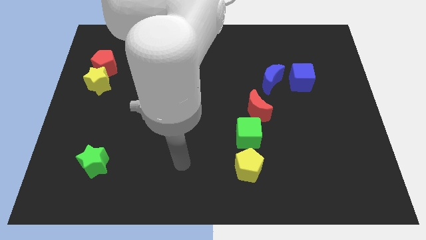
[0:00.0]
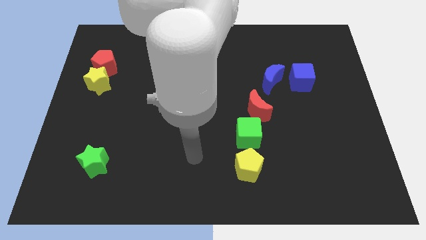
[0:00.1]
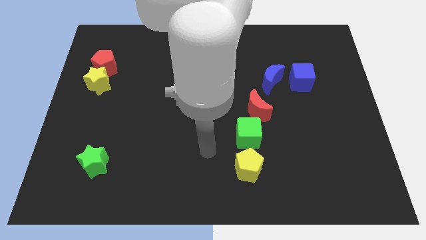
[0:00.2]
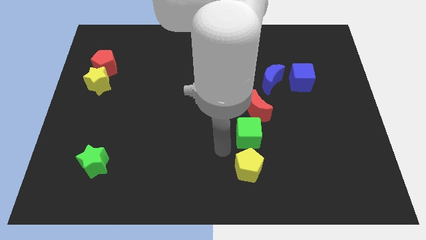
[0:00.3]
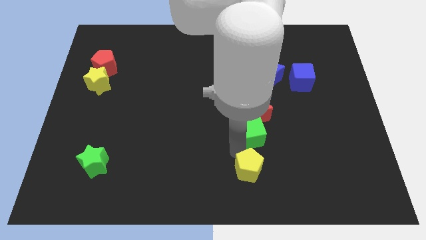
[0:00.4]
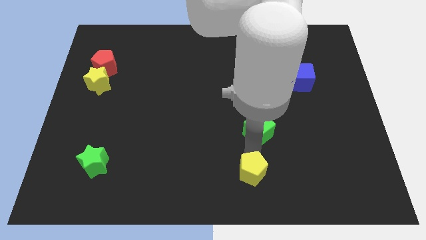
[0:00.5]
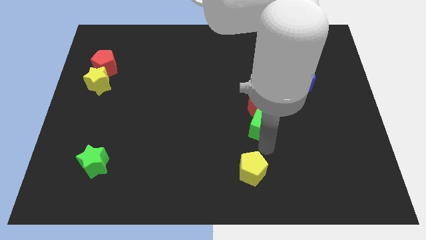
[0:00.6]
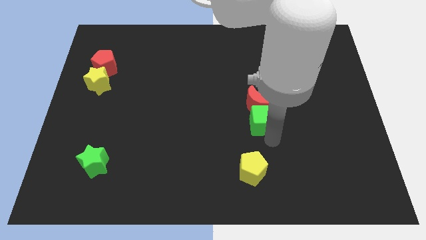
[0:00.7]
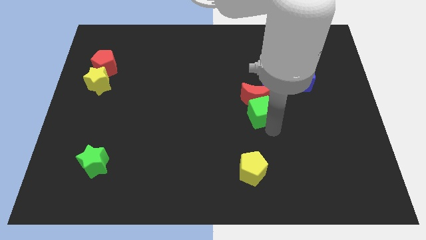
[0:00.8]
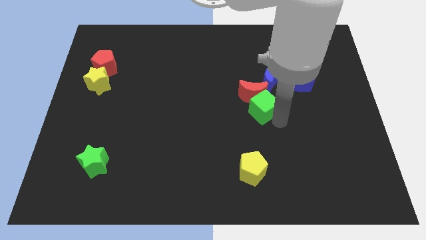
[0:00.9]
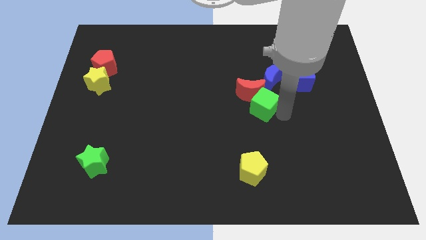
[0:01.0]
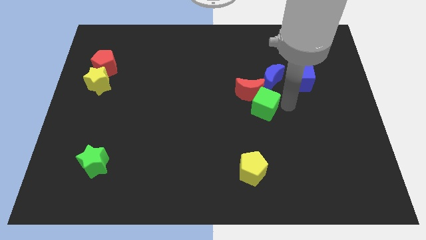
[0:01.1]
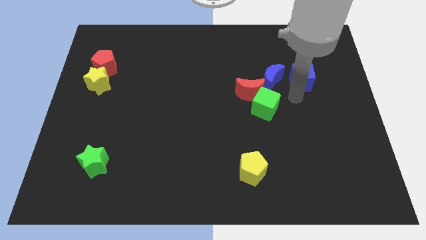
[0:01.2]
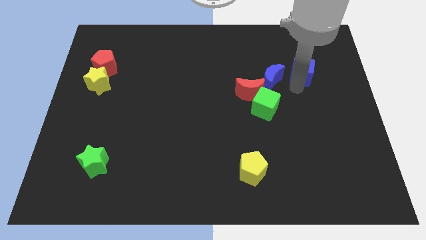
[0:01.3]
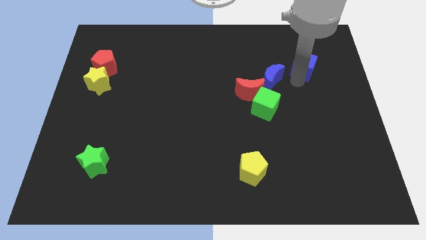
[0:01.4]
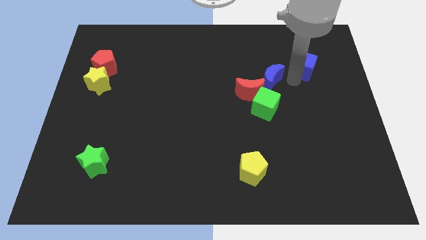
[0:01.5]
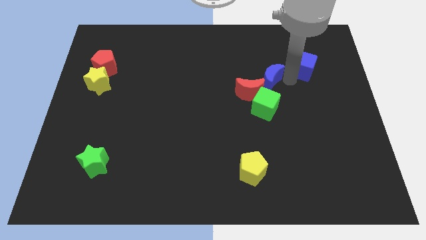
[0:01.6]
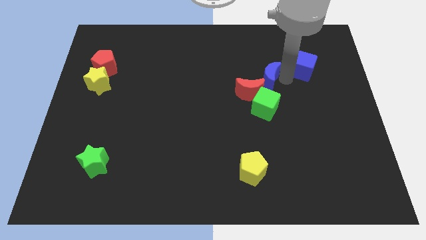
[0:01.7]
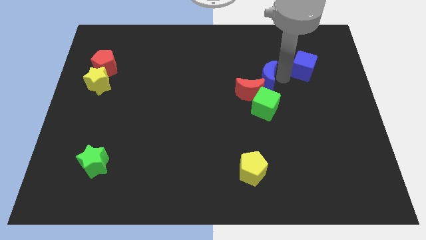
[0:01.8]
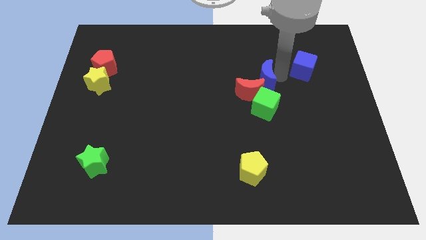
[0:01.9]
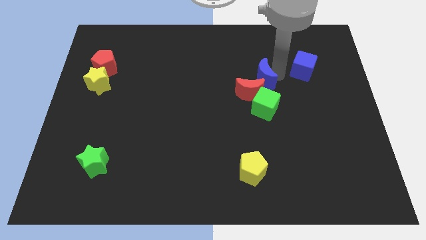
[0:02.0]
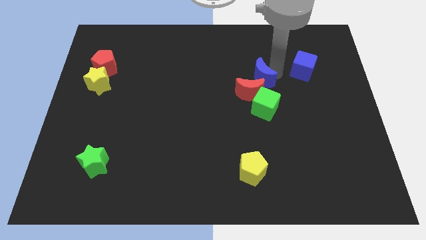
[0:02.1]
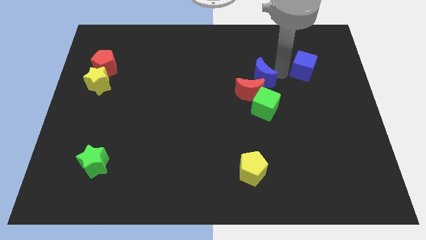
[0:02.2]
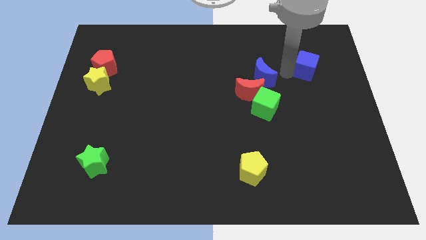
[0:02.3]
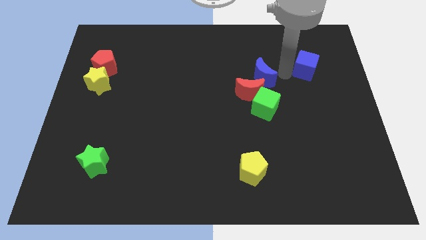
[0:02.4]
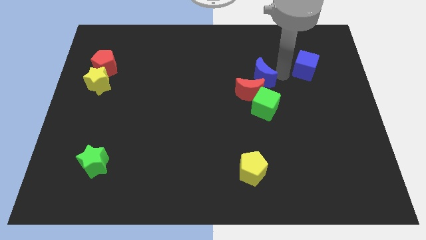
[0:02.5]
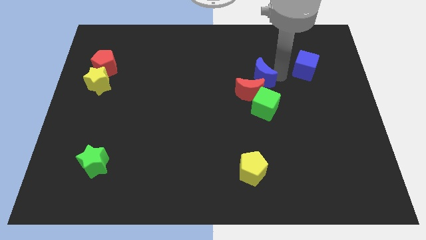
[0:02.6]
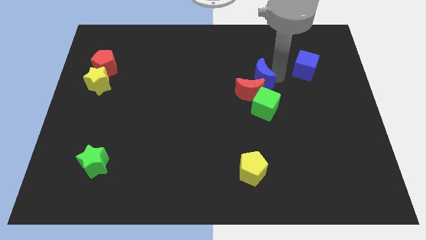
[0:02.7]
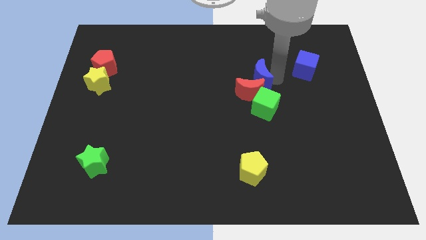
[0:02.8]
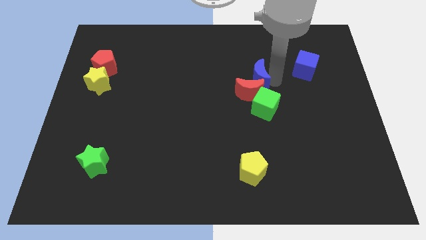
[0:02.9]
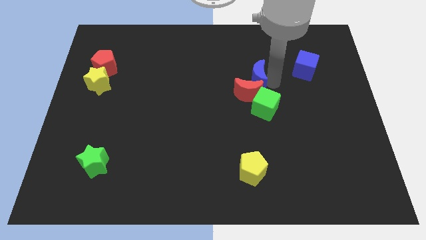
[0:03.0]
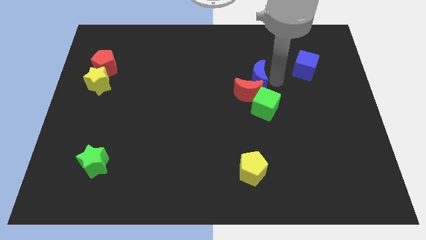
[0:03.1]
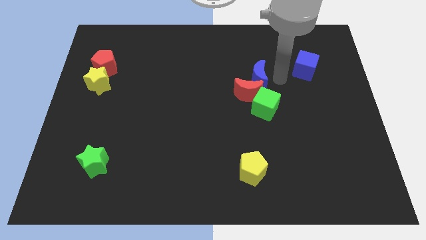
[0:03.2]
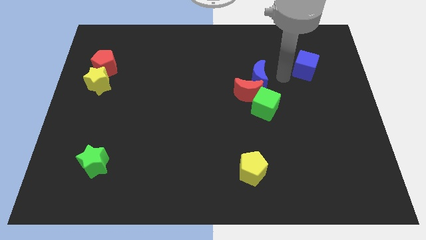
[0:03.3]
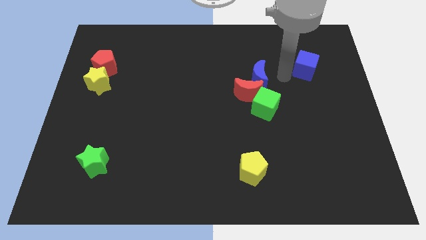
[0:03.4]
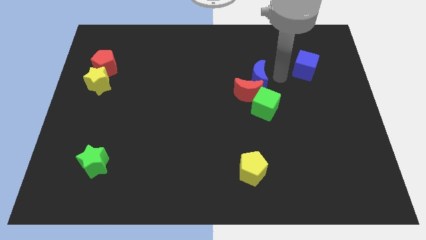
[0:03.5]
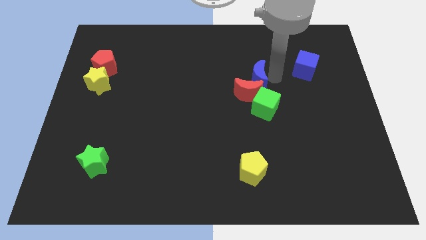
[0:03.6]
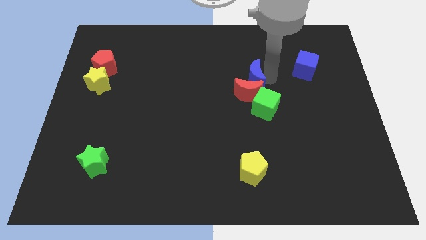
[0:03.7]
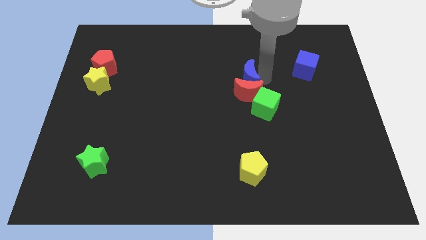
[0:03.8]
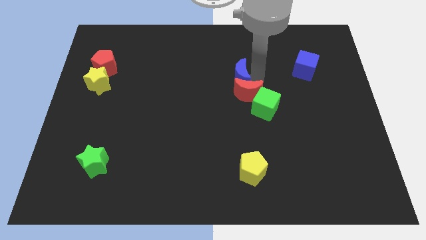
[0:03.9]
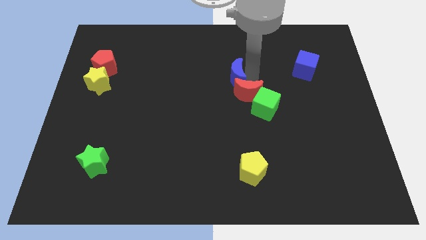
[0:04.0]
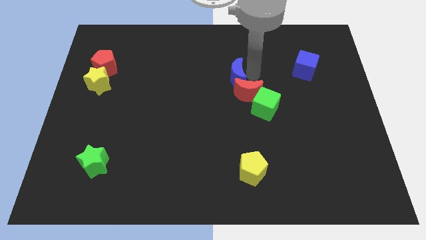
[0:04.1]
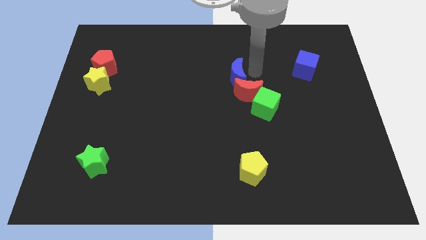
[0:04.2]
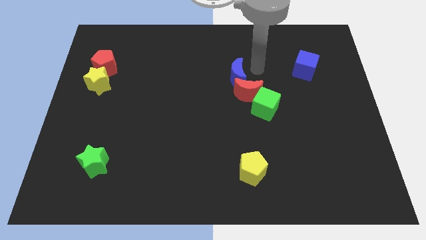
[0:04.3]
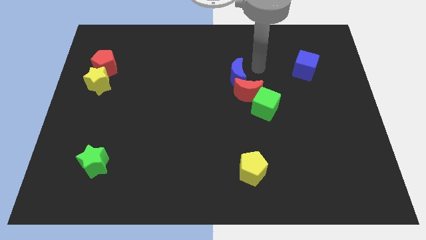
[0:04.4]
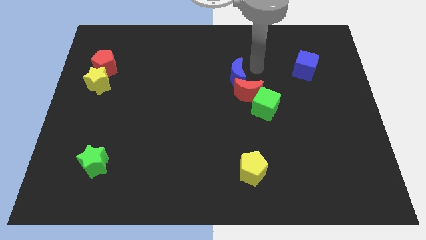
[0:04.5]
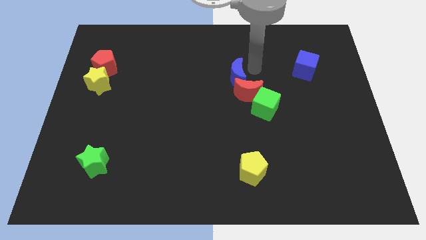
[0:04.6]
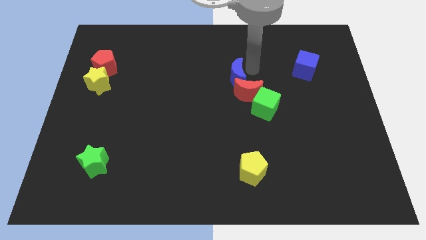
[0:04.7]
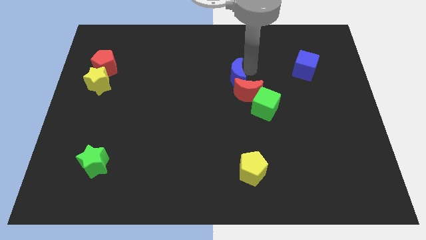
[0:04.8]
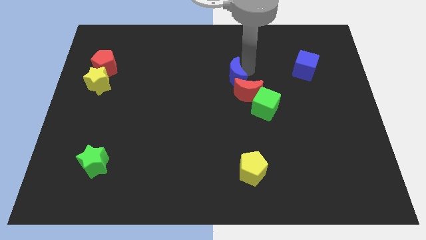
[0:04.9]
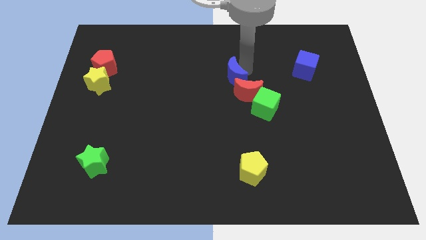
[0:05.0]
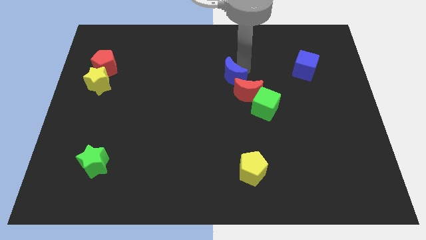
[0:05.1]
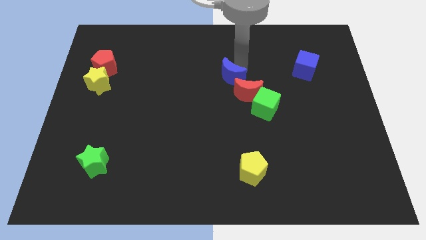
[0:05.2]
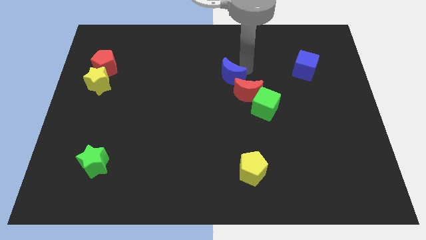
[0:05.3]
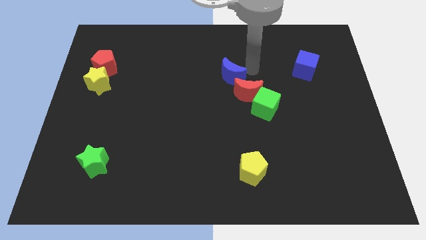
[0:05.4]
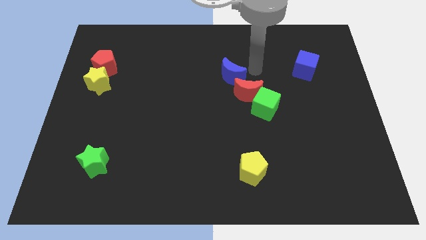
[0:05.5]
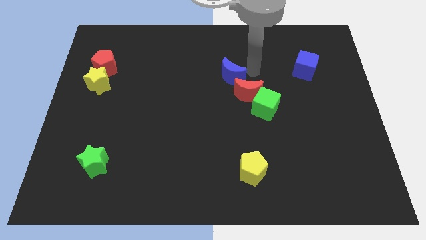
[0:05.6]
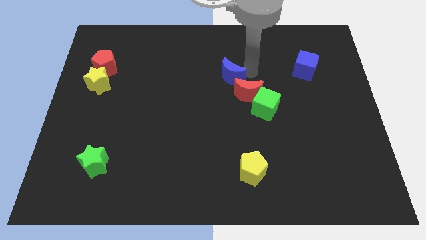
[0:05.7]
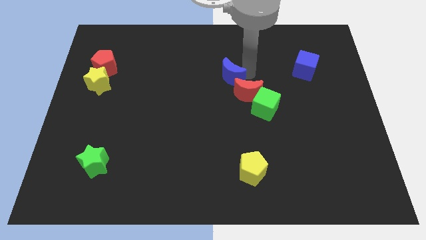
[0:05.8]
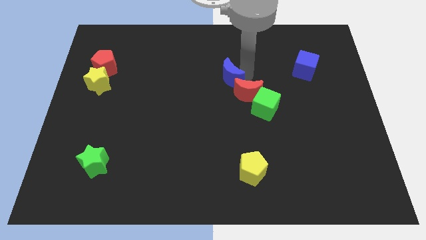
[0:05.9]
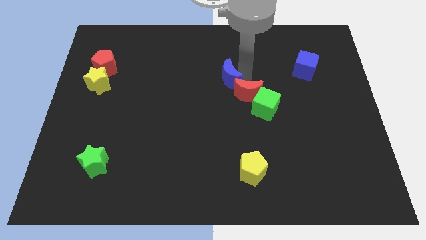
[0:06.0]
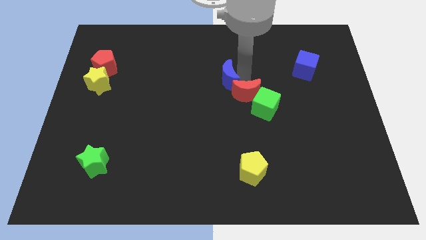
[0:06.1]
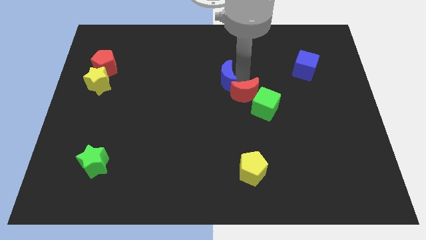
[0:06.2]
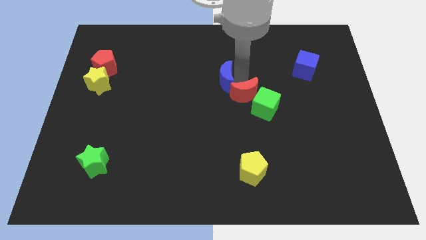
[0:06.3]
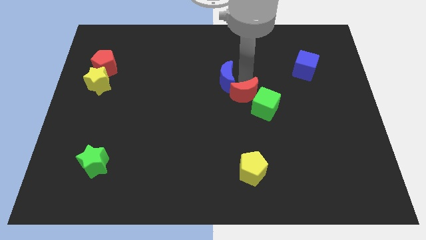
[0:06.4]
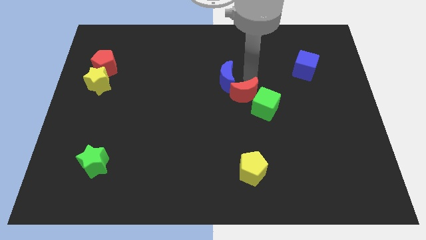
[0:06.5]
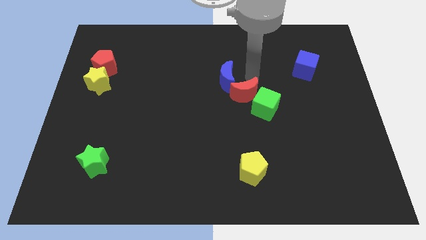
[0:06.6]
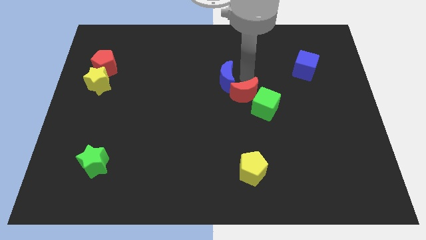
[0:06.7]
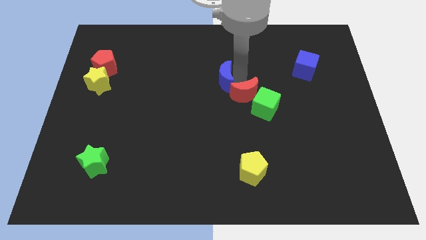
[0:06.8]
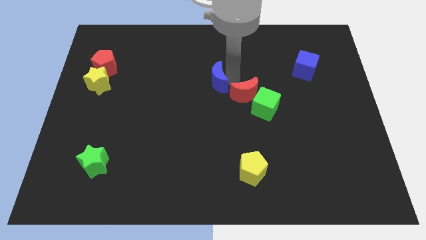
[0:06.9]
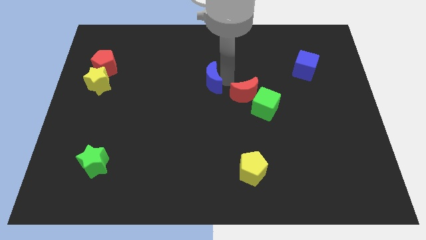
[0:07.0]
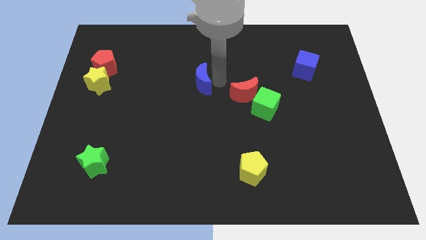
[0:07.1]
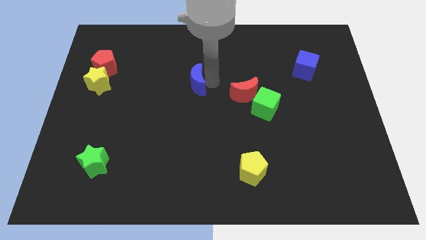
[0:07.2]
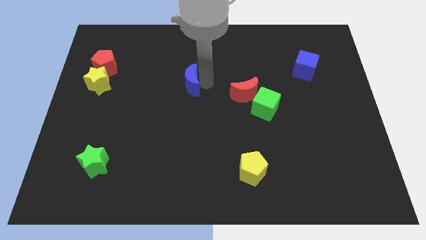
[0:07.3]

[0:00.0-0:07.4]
move the blue moon left

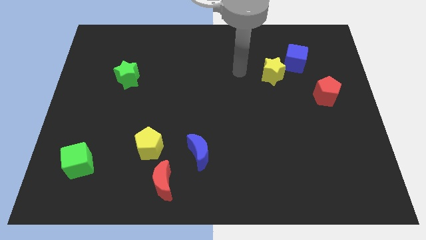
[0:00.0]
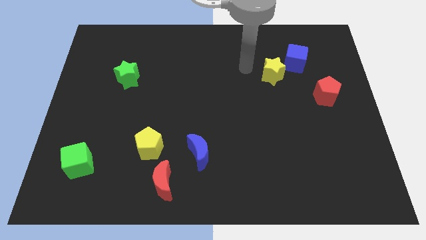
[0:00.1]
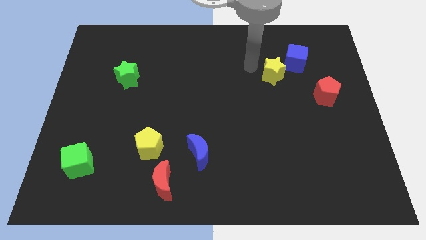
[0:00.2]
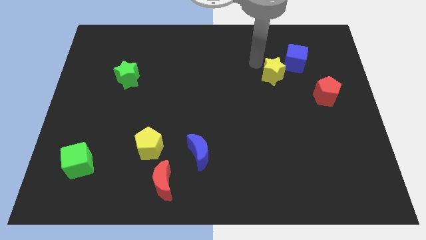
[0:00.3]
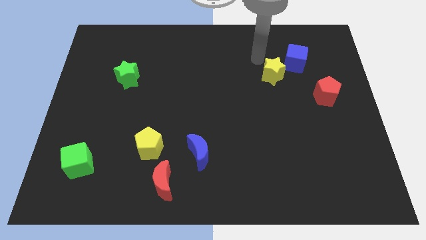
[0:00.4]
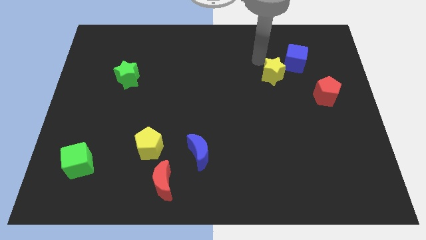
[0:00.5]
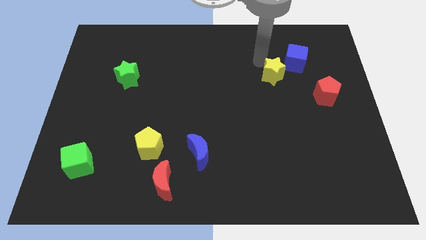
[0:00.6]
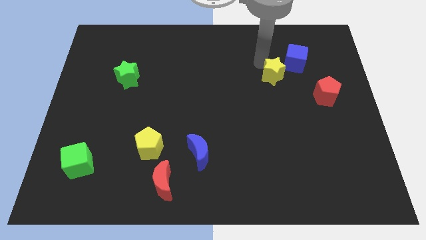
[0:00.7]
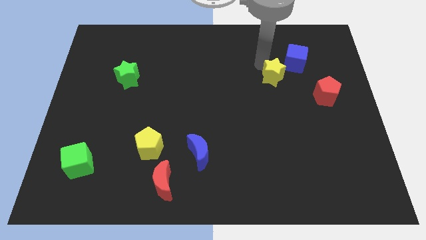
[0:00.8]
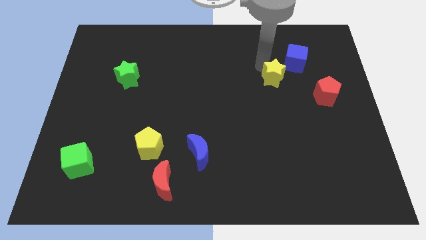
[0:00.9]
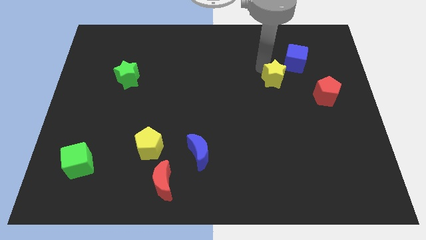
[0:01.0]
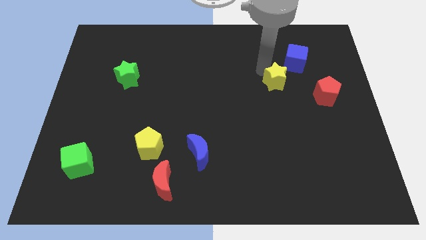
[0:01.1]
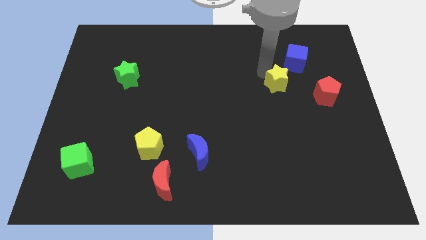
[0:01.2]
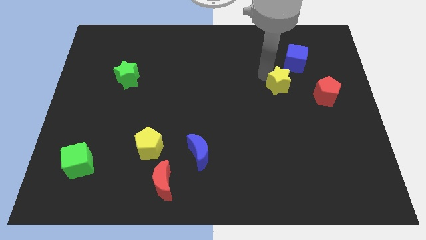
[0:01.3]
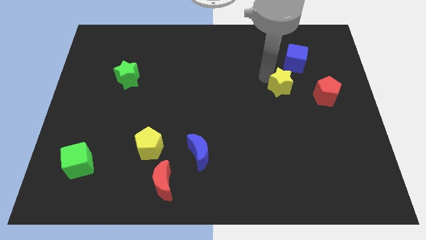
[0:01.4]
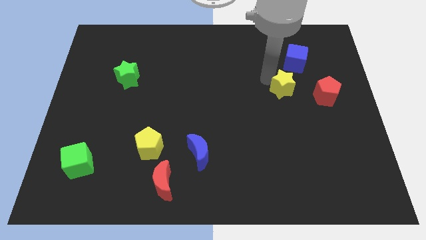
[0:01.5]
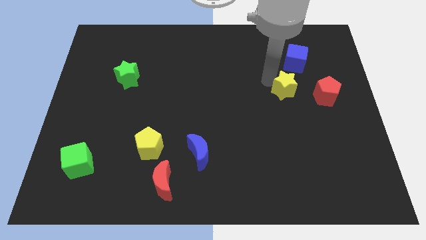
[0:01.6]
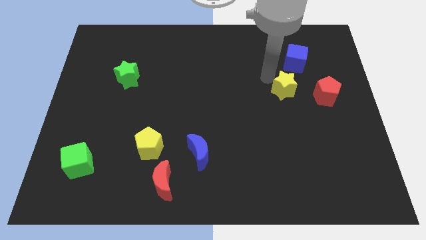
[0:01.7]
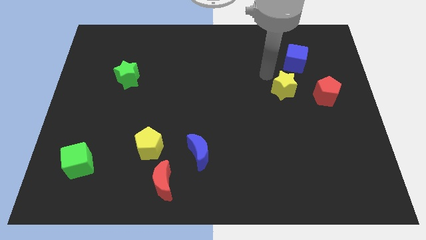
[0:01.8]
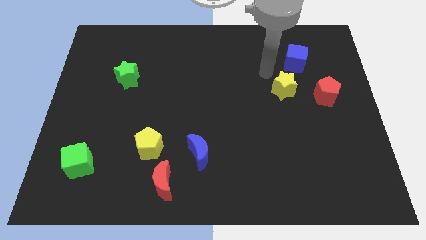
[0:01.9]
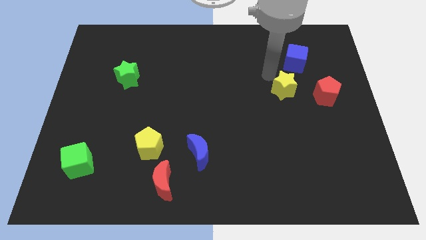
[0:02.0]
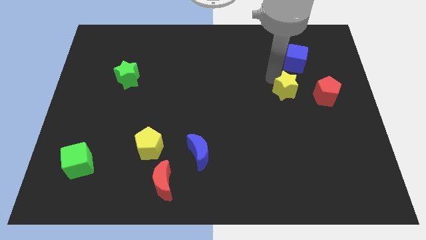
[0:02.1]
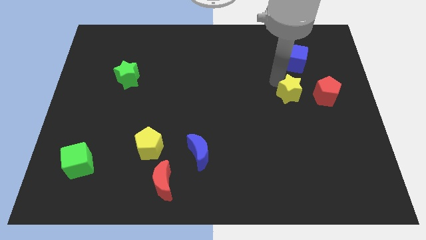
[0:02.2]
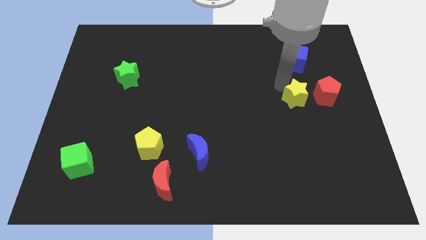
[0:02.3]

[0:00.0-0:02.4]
slide the yellow star diagonally downwards and right somewhat
